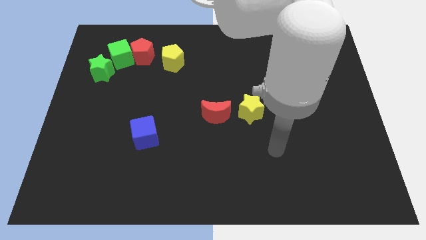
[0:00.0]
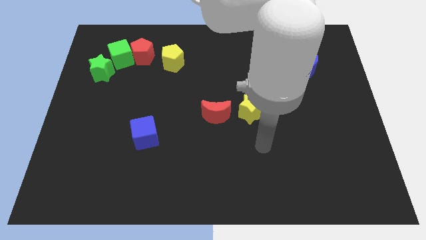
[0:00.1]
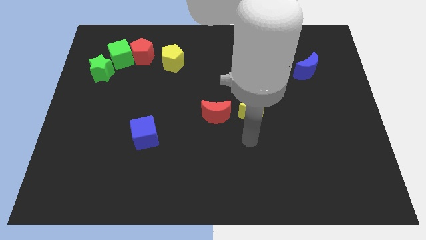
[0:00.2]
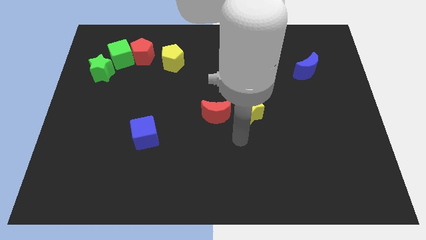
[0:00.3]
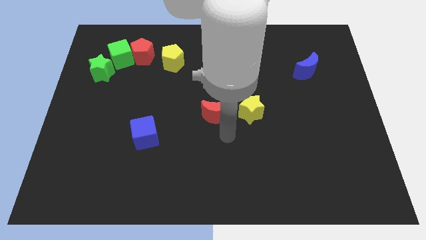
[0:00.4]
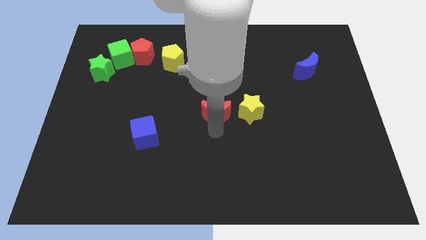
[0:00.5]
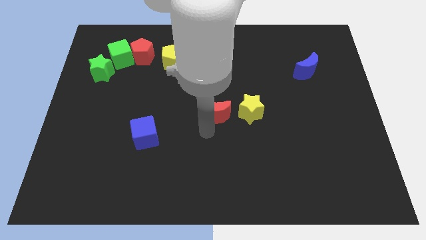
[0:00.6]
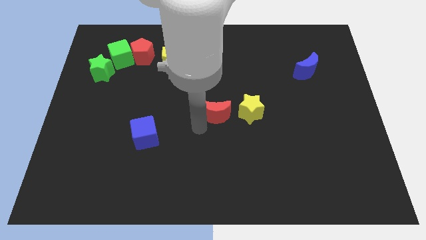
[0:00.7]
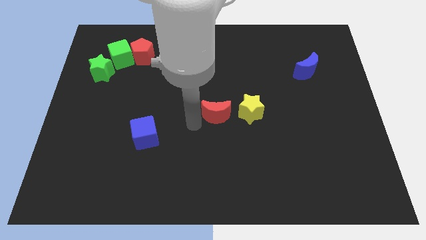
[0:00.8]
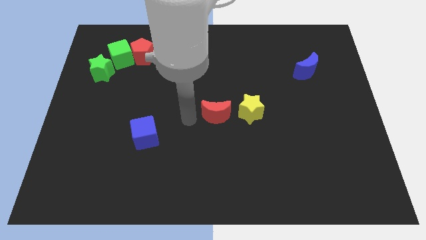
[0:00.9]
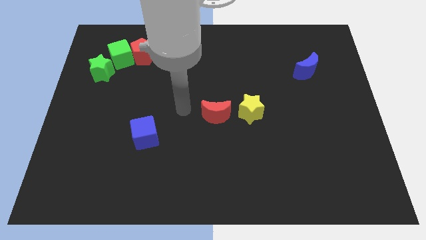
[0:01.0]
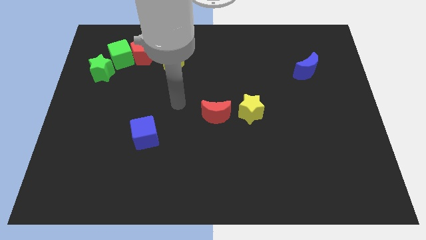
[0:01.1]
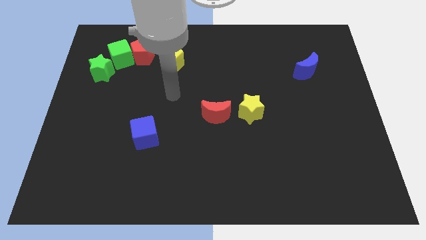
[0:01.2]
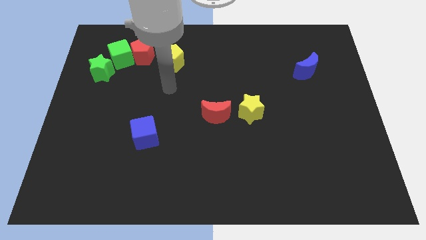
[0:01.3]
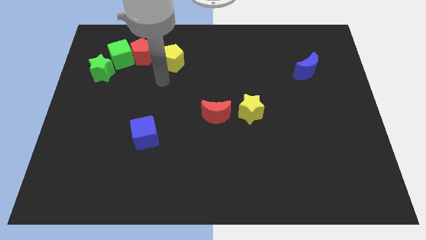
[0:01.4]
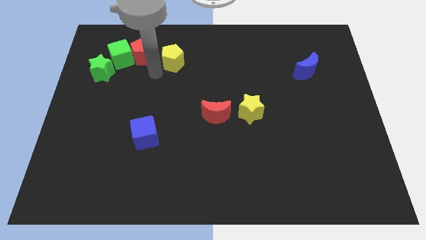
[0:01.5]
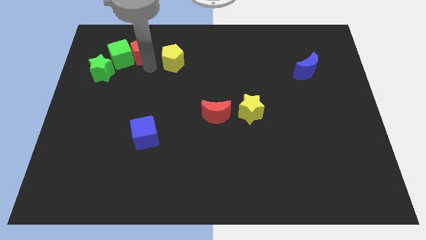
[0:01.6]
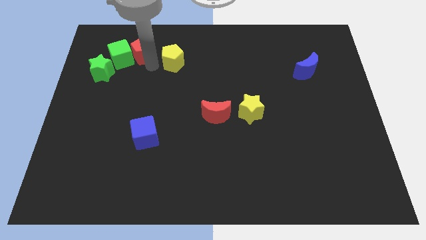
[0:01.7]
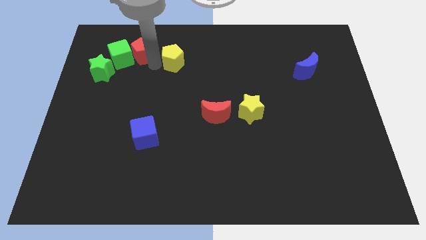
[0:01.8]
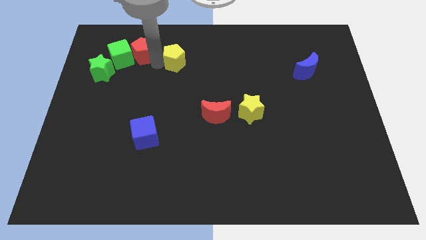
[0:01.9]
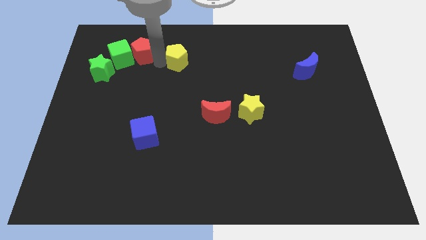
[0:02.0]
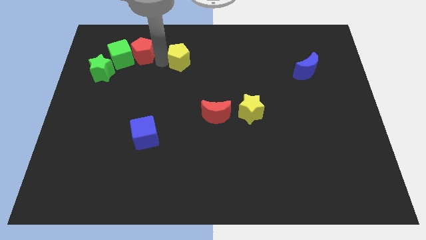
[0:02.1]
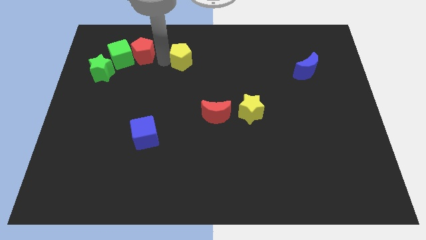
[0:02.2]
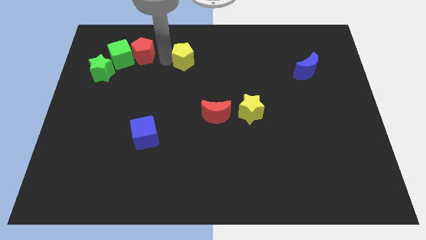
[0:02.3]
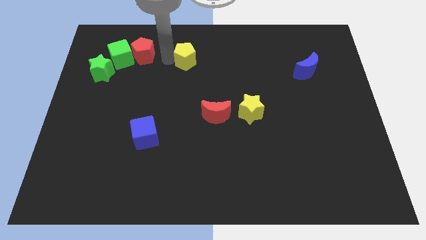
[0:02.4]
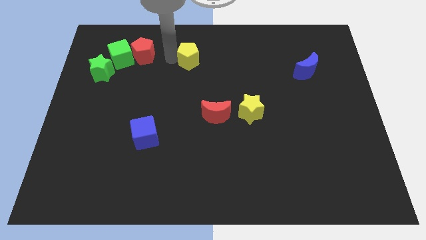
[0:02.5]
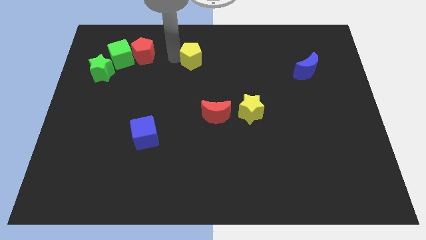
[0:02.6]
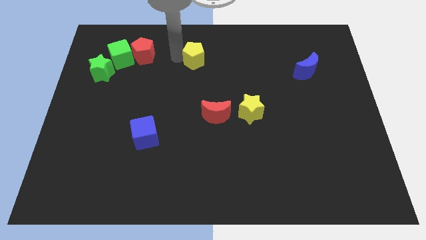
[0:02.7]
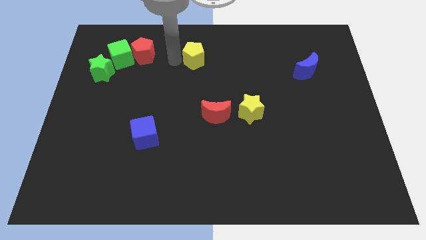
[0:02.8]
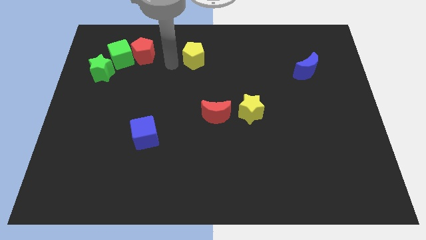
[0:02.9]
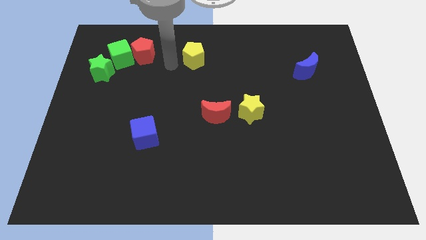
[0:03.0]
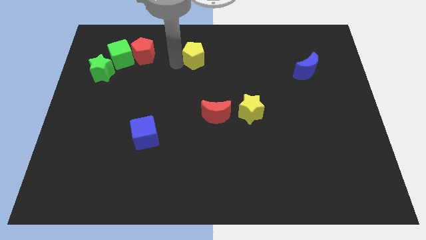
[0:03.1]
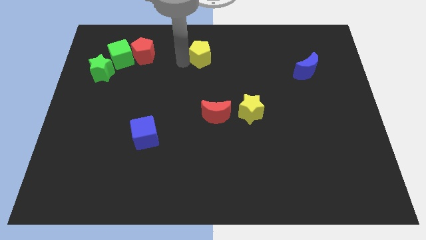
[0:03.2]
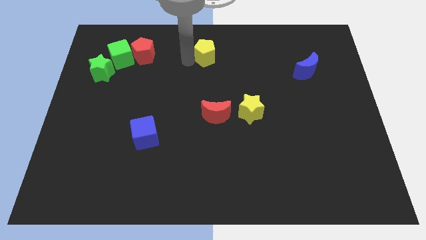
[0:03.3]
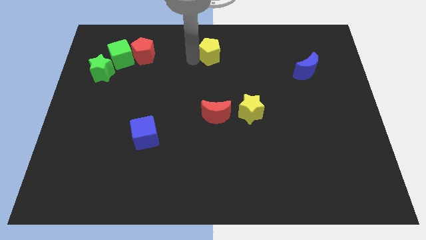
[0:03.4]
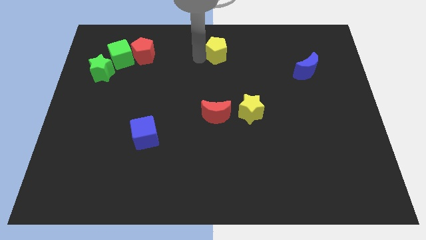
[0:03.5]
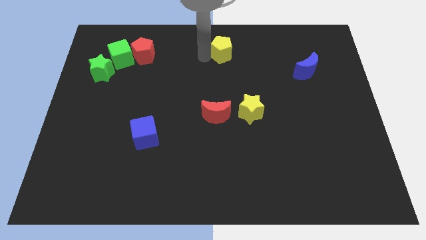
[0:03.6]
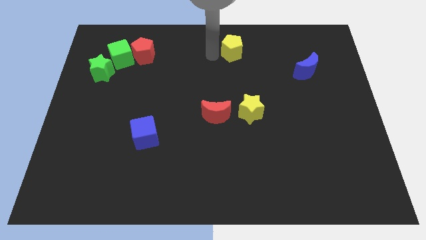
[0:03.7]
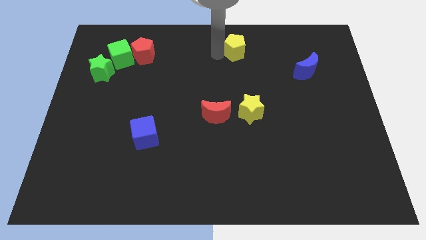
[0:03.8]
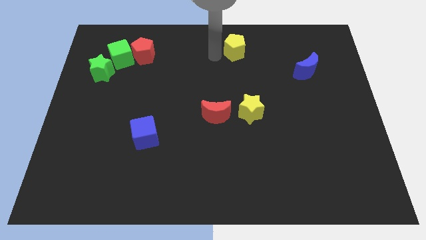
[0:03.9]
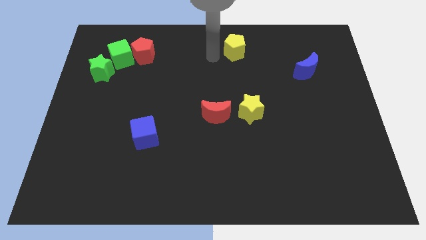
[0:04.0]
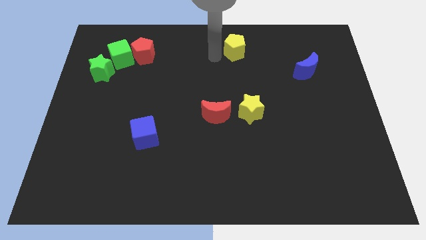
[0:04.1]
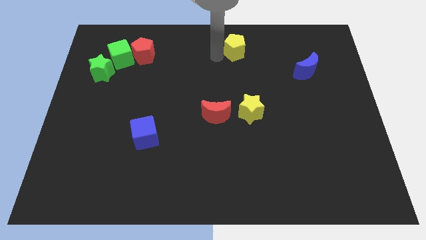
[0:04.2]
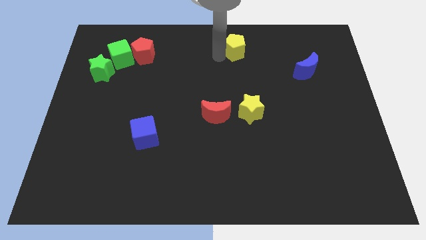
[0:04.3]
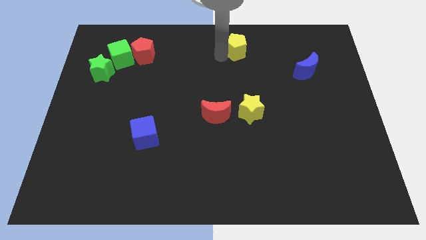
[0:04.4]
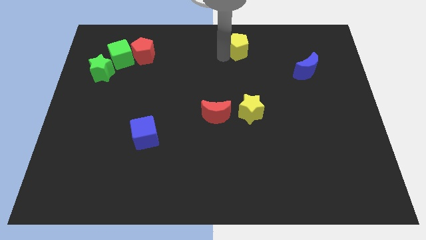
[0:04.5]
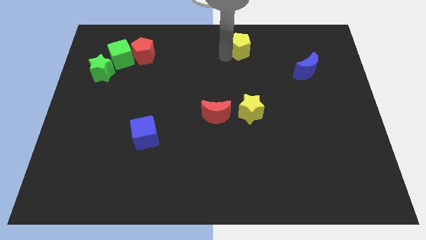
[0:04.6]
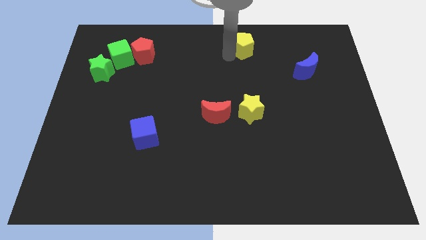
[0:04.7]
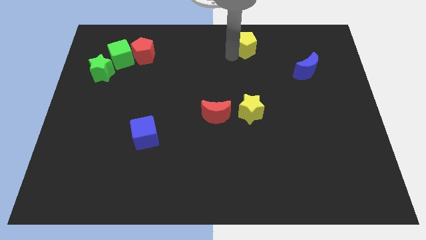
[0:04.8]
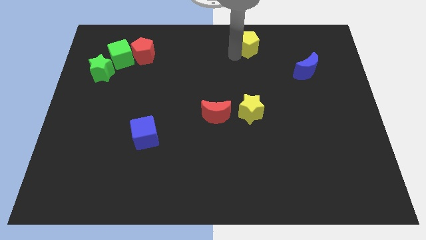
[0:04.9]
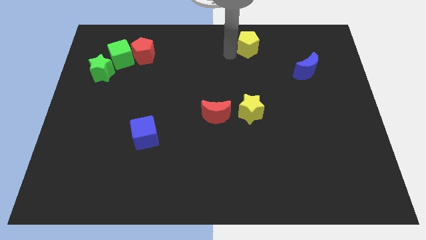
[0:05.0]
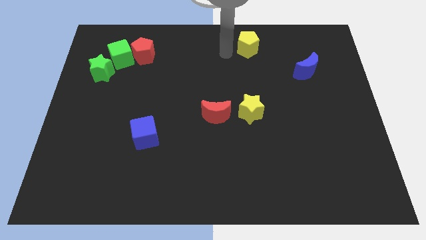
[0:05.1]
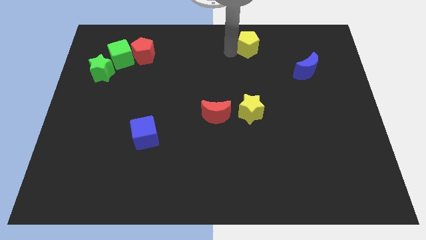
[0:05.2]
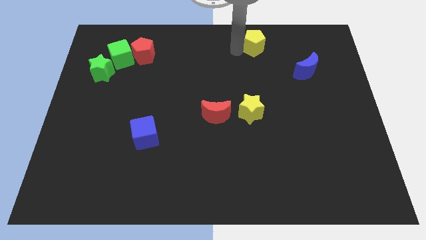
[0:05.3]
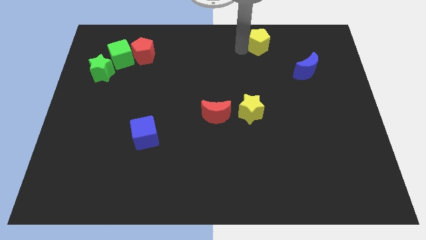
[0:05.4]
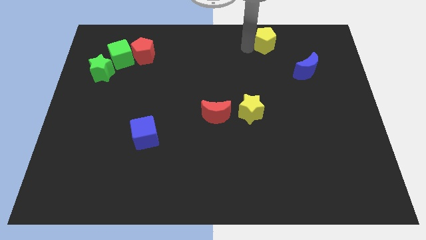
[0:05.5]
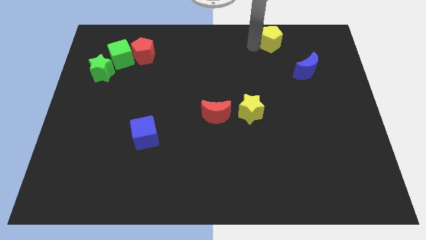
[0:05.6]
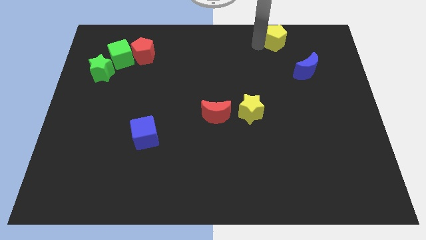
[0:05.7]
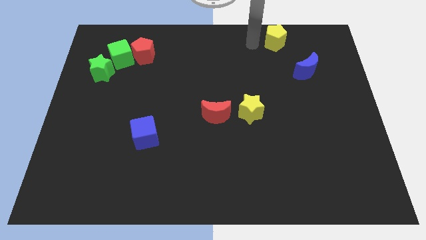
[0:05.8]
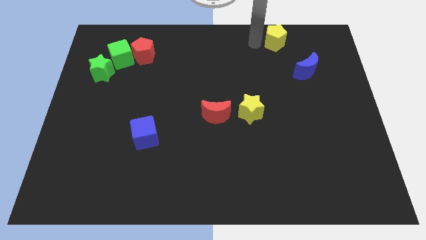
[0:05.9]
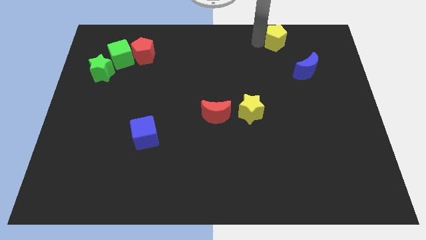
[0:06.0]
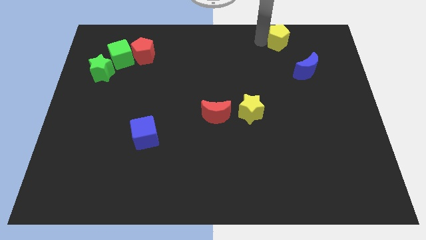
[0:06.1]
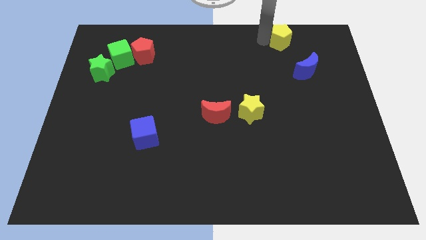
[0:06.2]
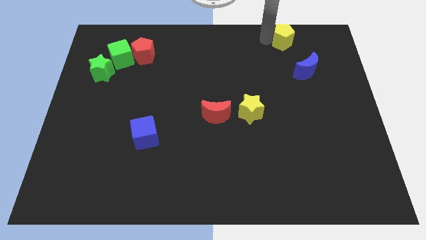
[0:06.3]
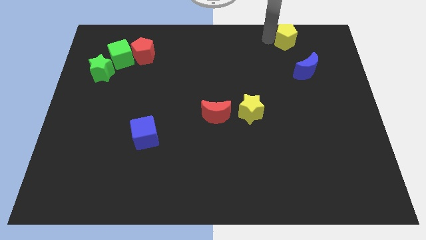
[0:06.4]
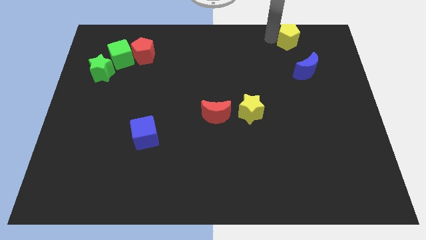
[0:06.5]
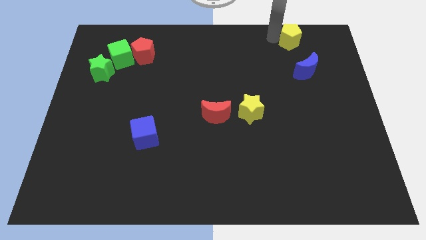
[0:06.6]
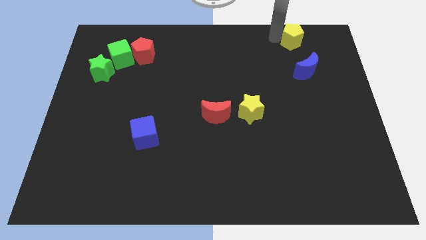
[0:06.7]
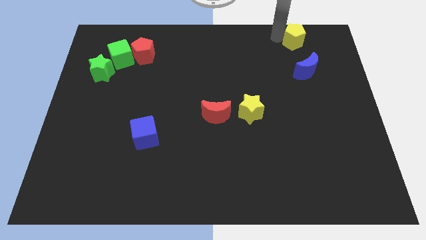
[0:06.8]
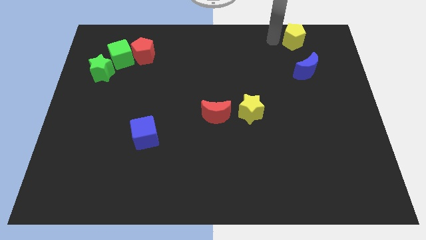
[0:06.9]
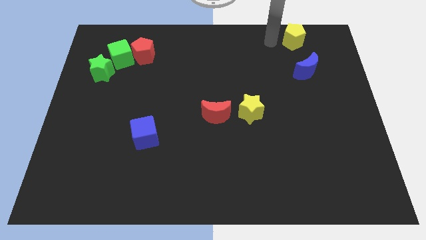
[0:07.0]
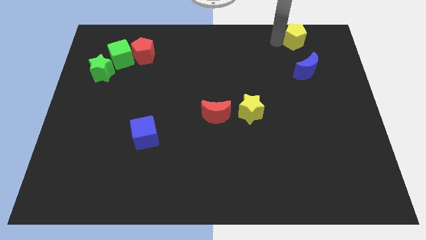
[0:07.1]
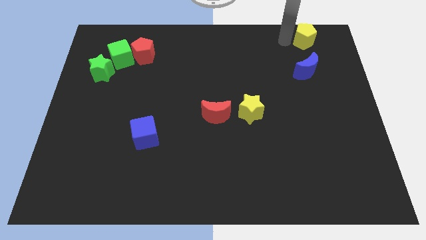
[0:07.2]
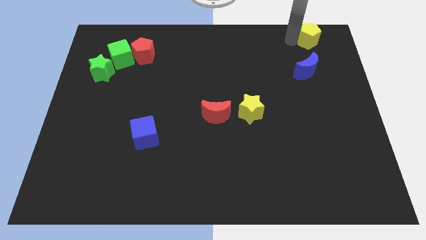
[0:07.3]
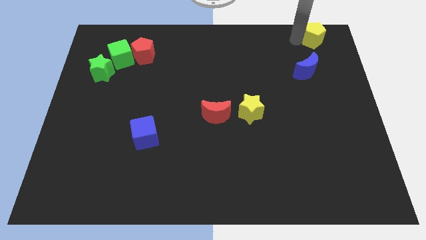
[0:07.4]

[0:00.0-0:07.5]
slide the yellow pentagon to the top right corner
